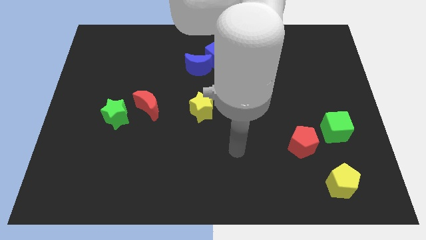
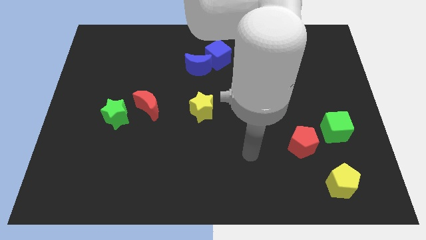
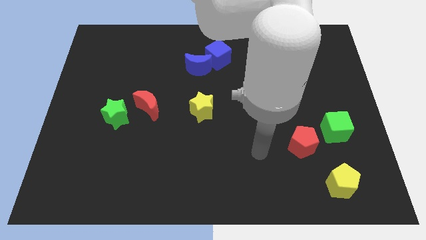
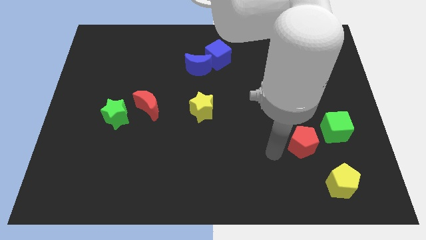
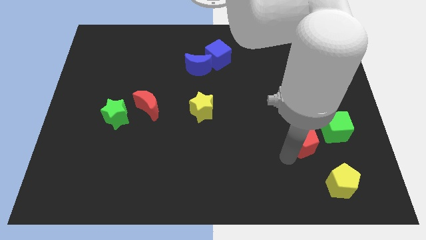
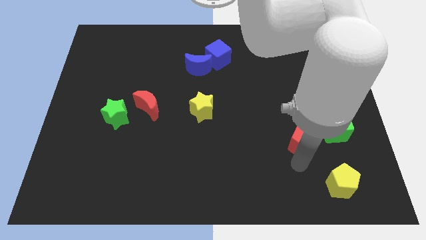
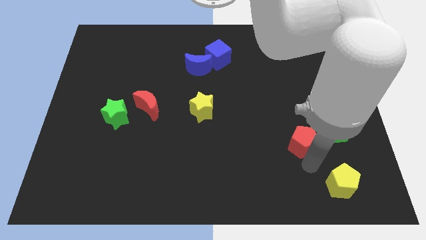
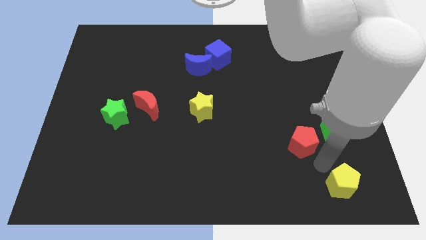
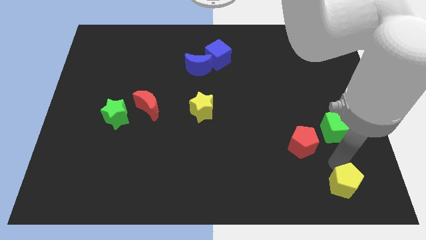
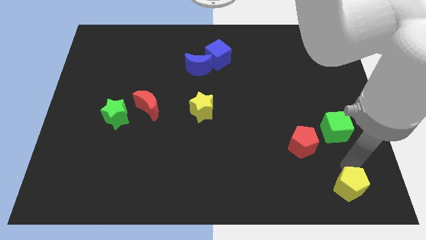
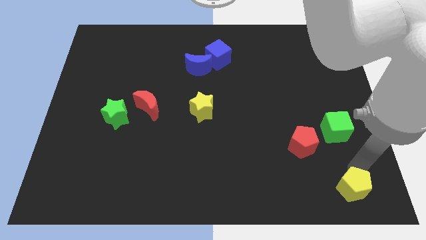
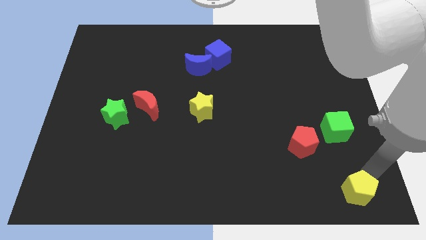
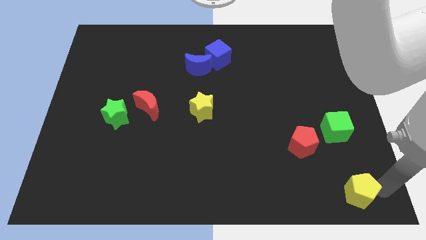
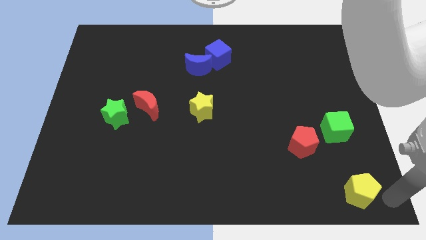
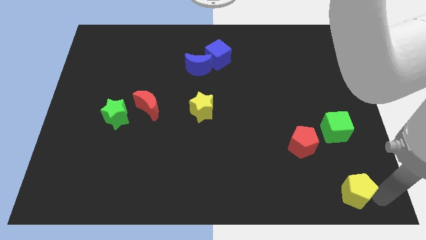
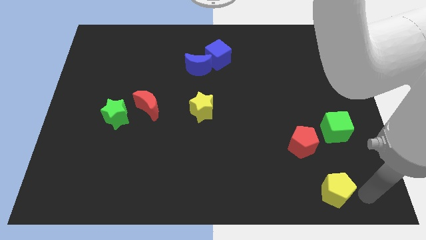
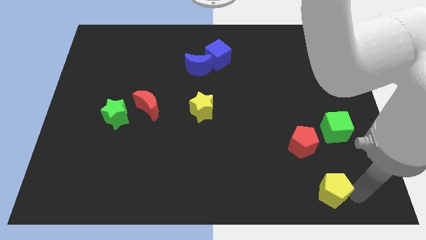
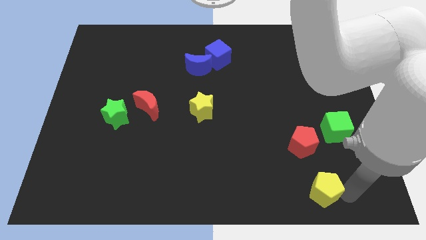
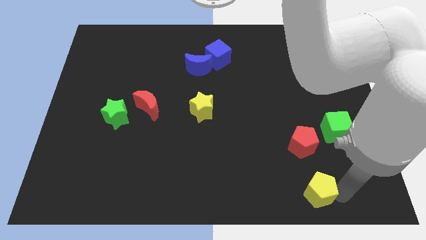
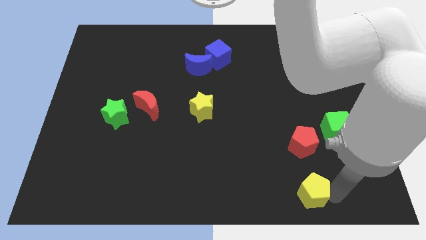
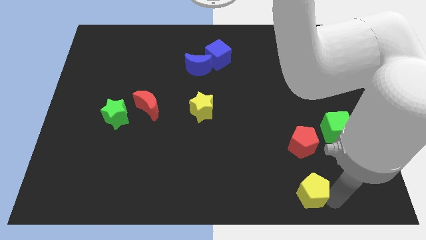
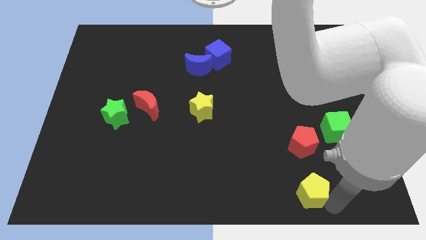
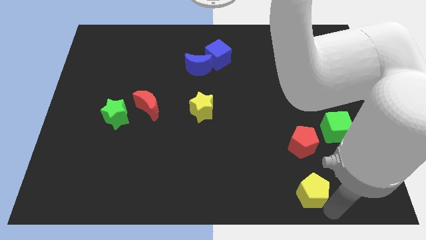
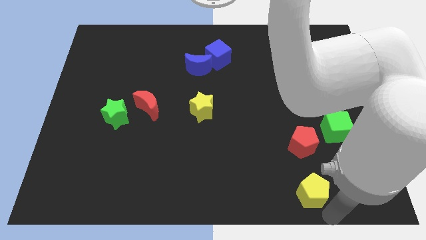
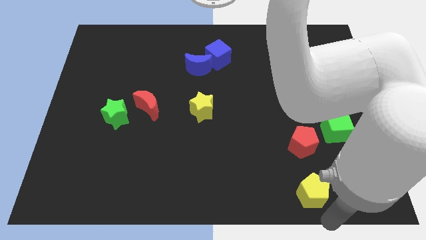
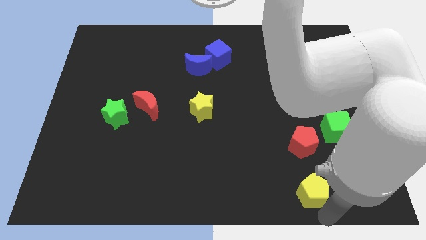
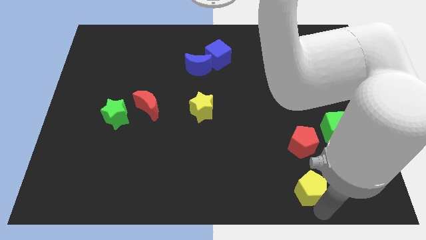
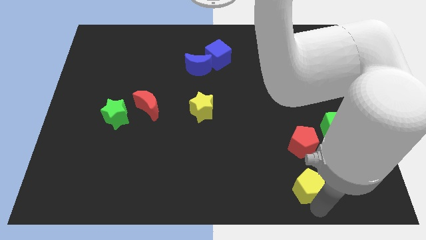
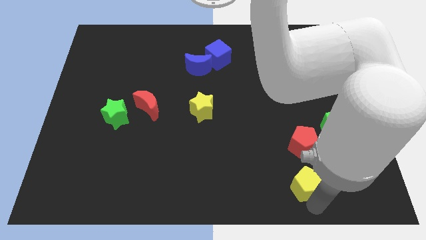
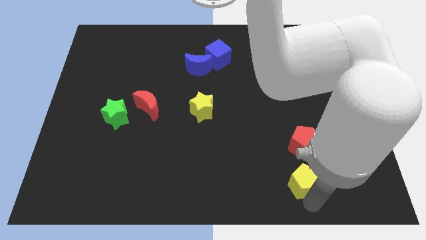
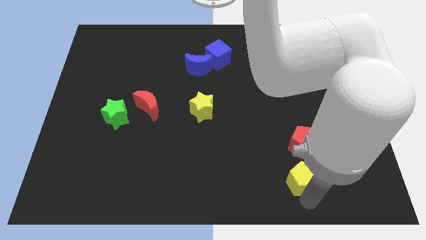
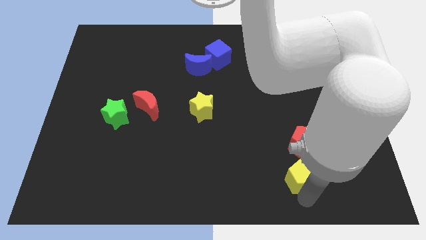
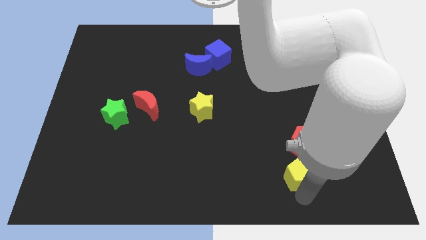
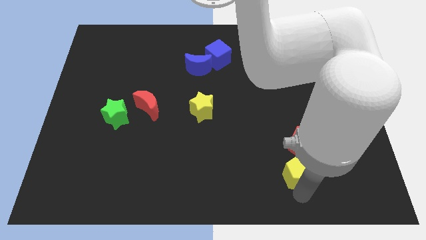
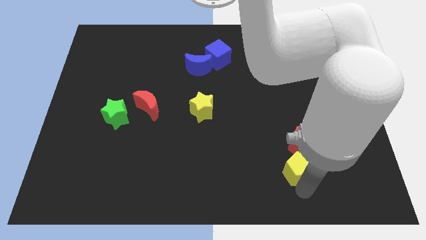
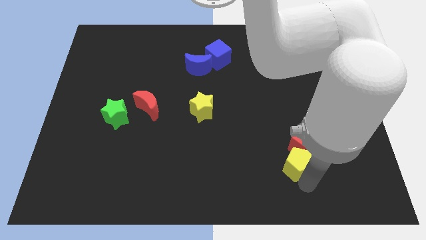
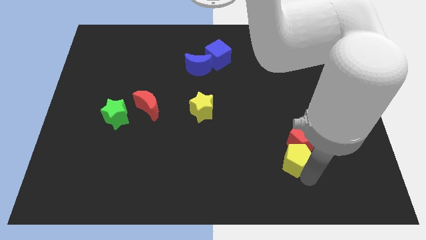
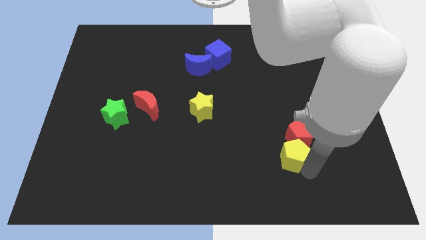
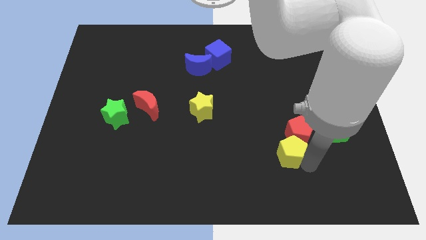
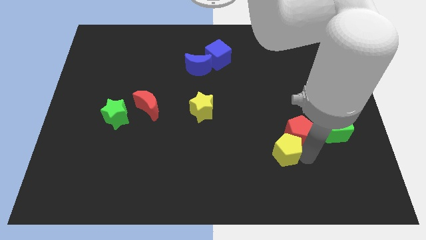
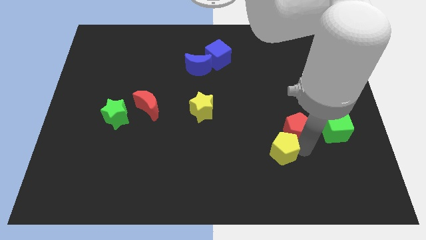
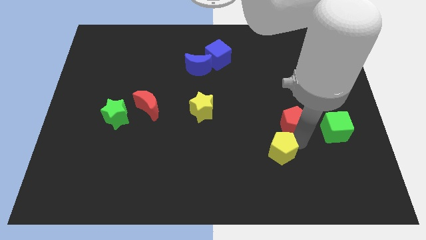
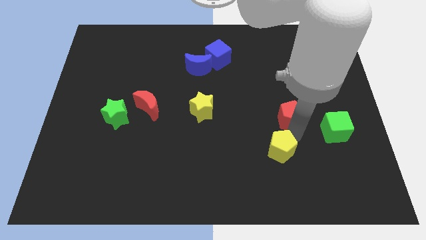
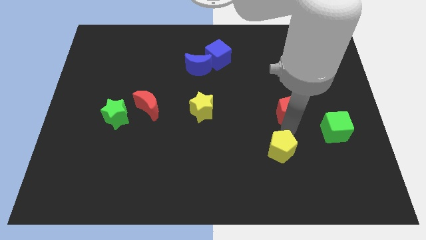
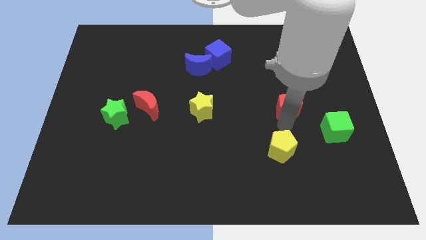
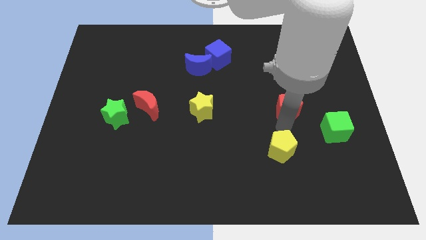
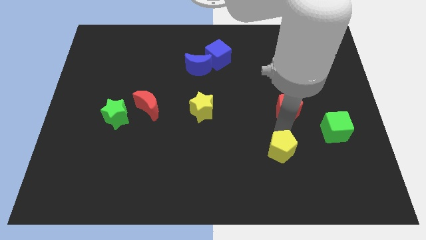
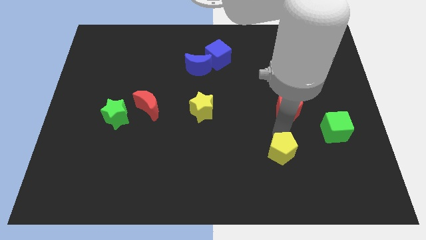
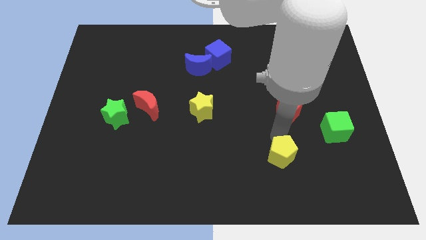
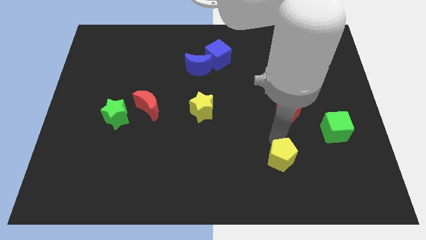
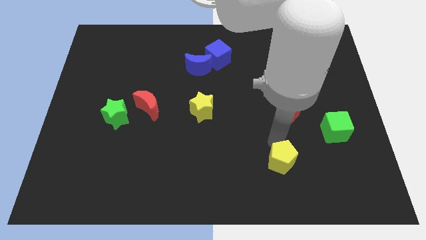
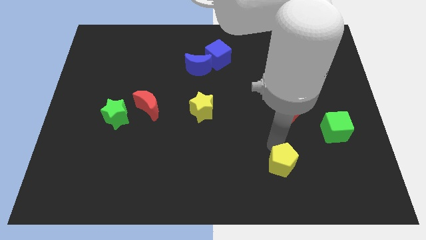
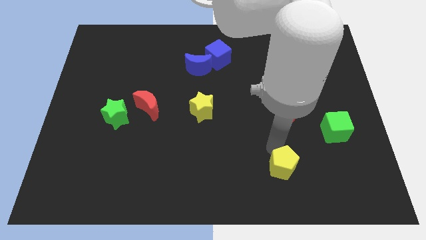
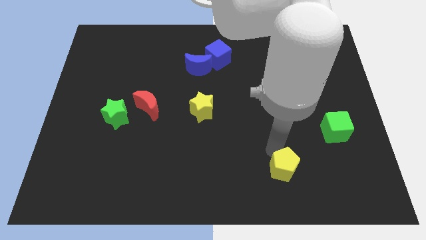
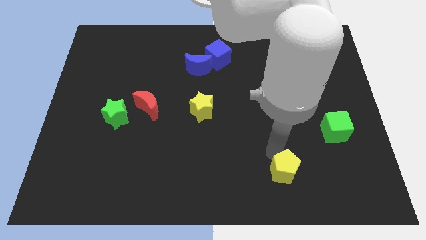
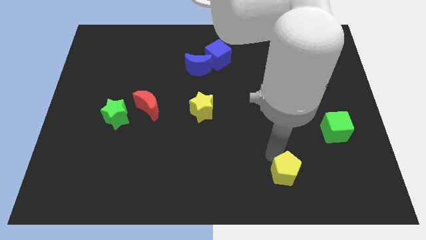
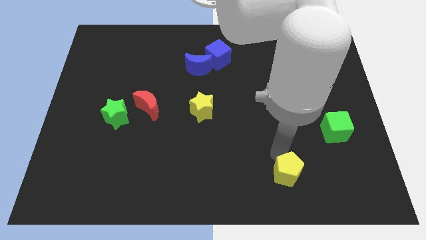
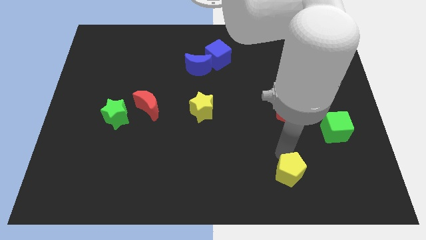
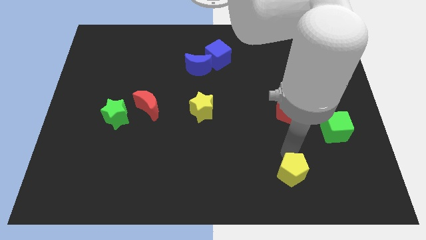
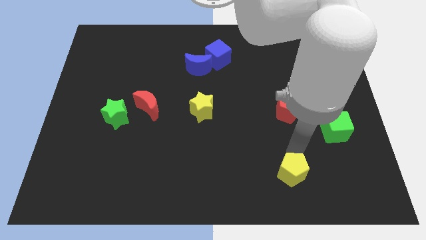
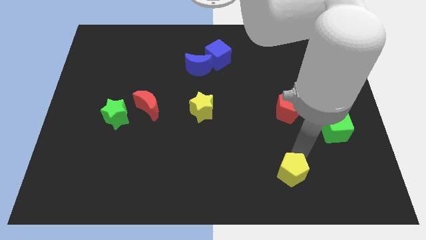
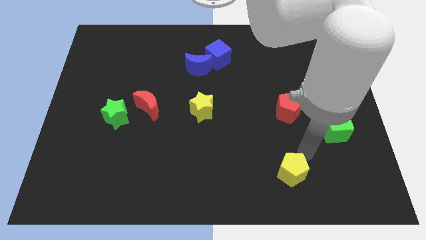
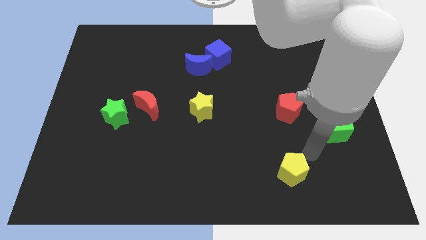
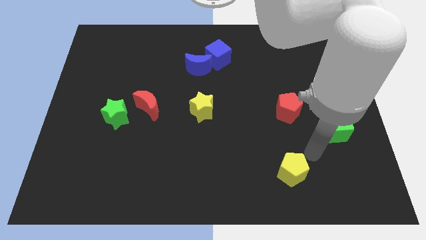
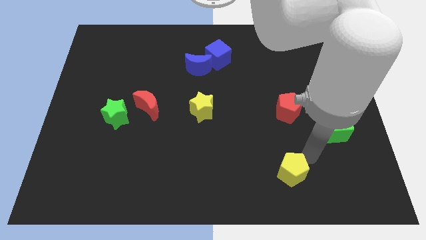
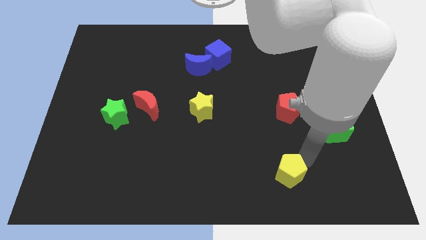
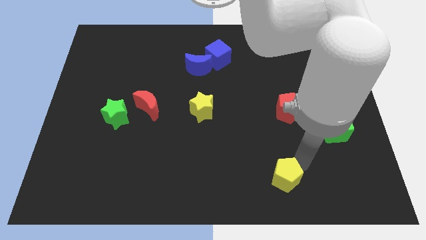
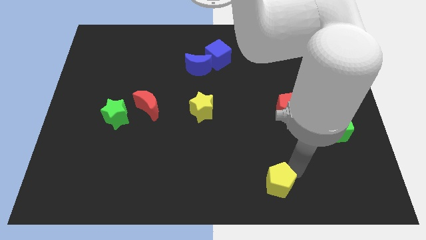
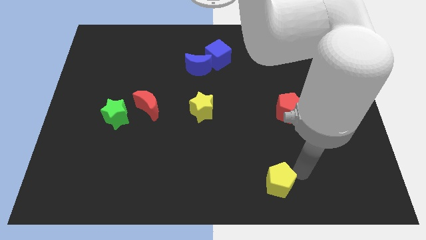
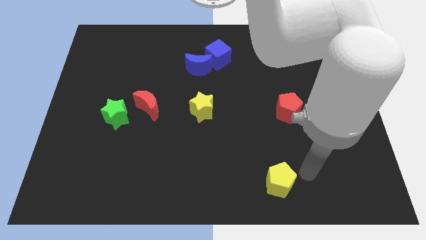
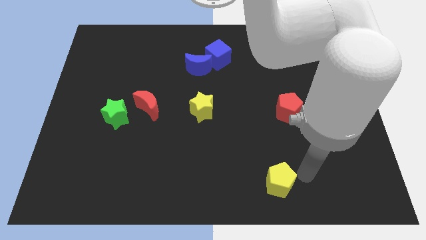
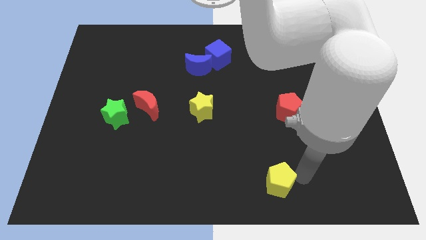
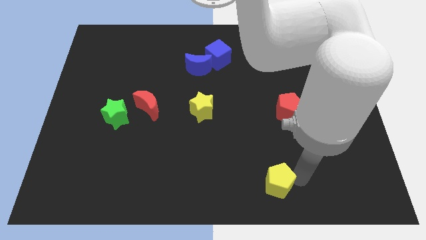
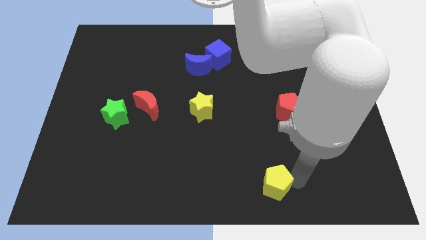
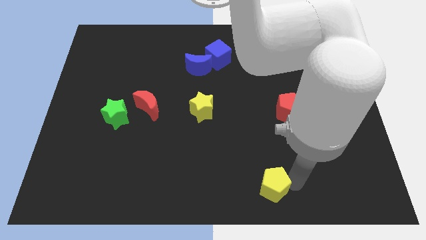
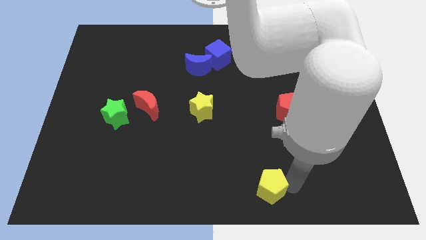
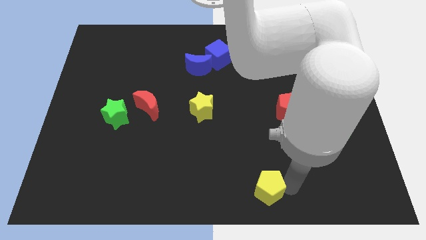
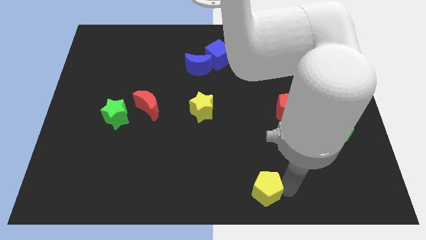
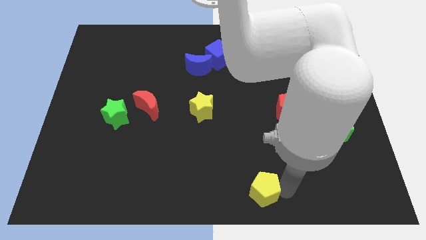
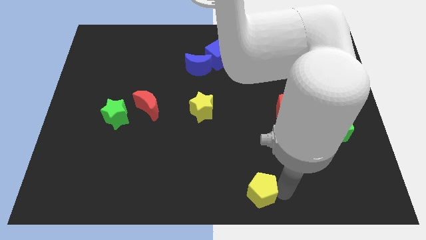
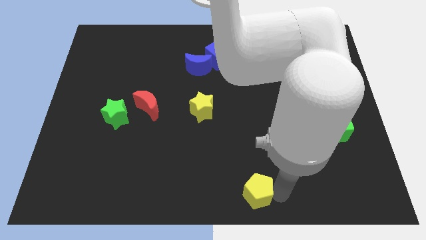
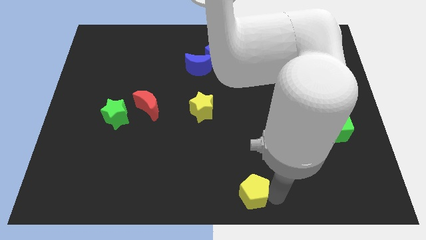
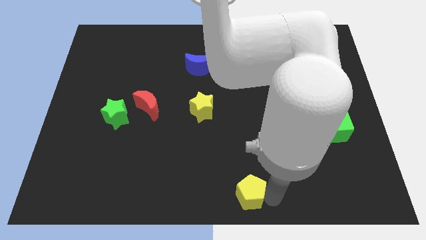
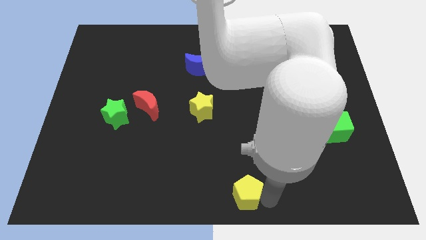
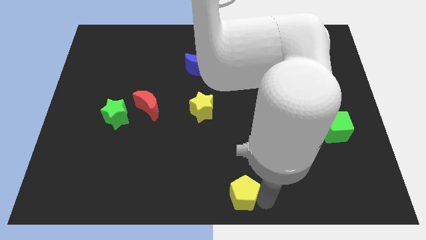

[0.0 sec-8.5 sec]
push the yellow pentagon left

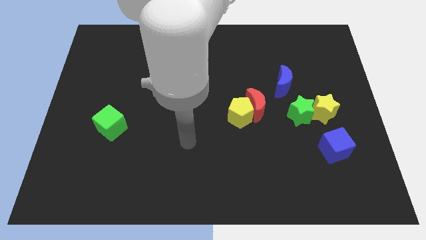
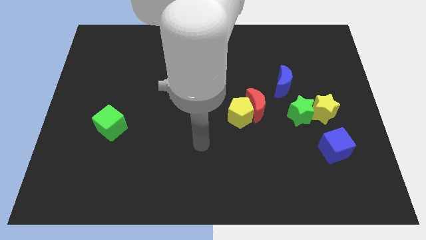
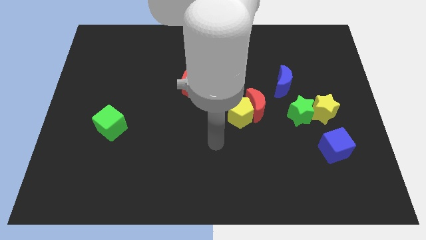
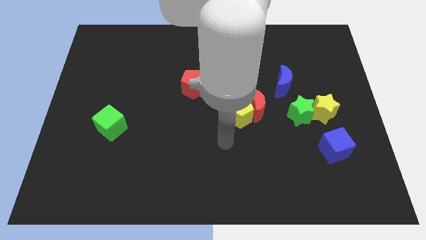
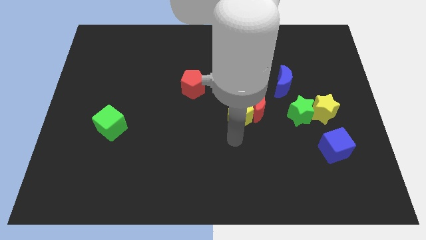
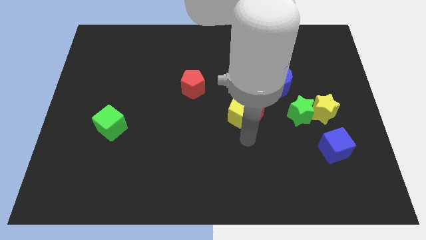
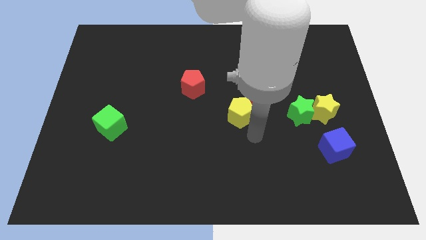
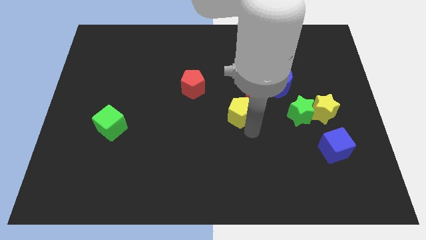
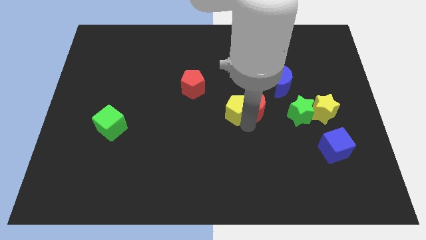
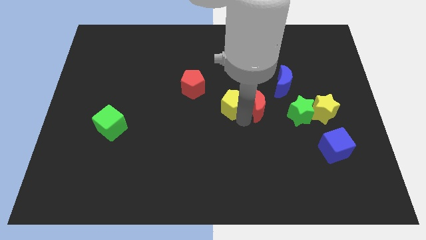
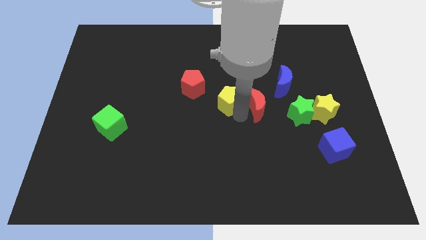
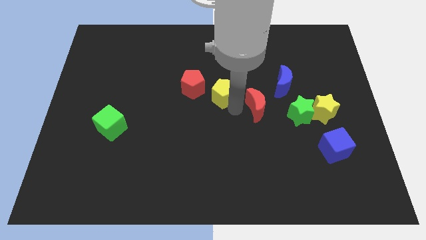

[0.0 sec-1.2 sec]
move the yellow pentagon a bit up and left
